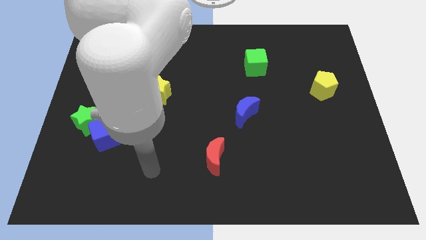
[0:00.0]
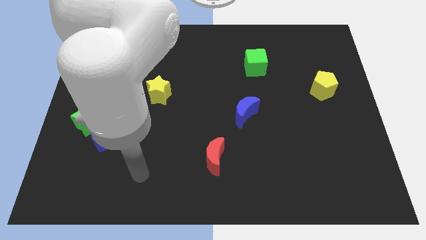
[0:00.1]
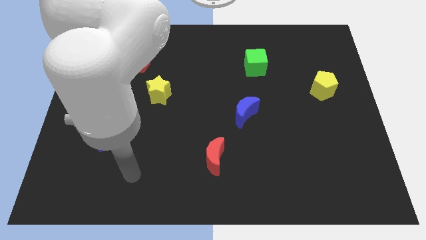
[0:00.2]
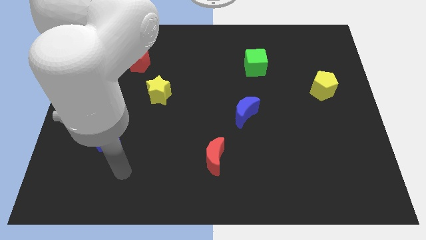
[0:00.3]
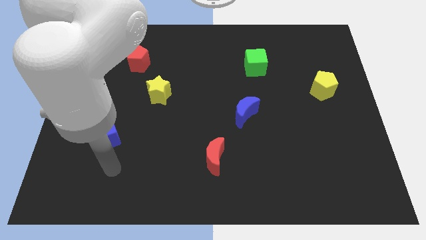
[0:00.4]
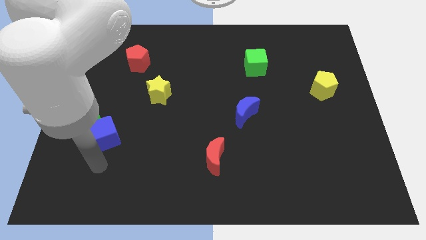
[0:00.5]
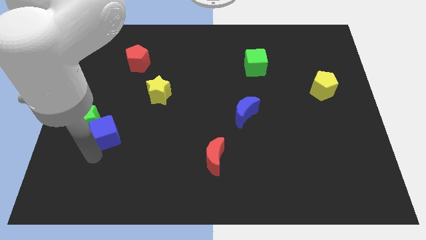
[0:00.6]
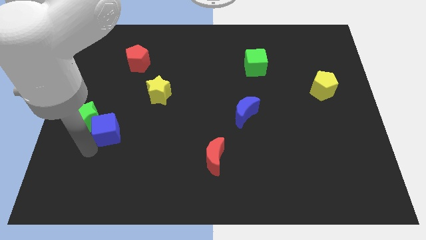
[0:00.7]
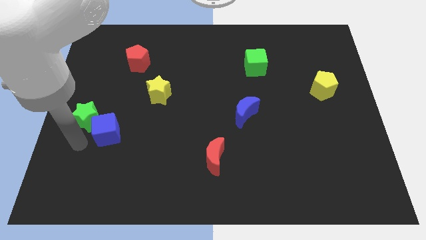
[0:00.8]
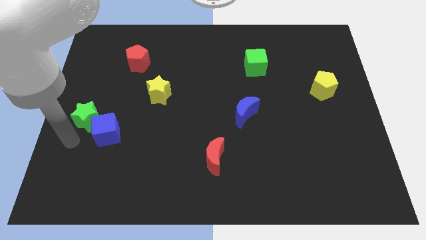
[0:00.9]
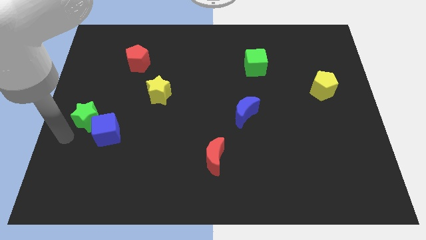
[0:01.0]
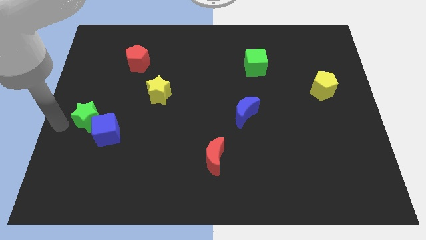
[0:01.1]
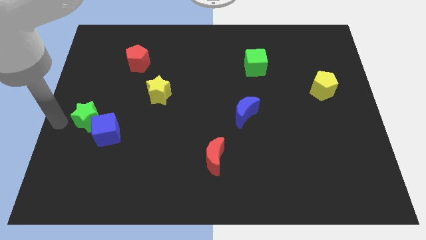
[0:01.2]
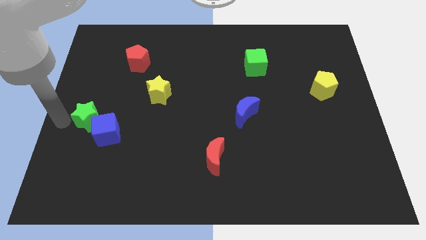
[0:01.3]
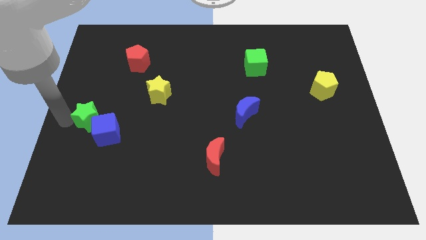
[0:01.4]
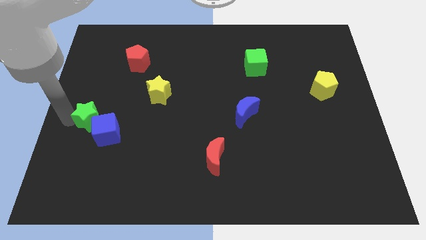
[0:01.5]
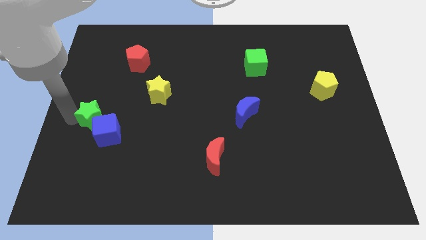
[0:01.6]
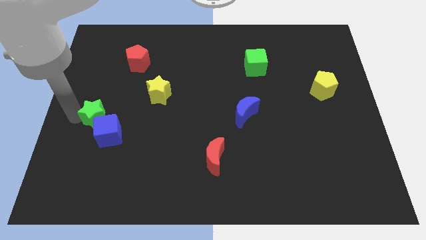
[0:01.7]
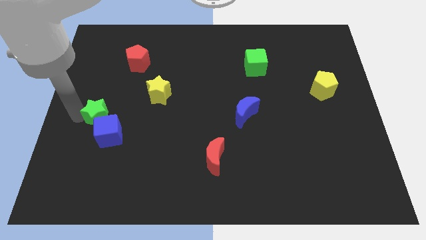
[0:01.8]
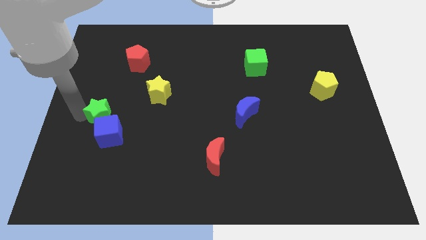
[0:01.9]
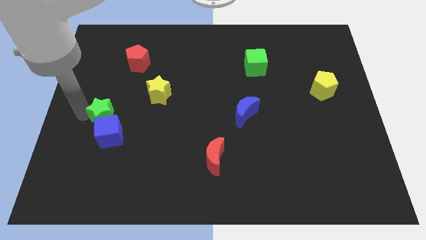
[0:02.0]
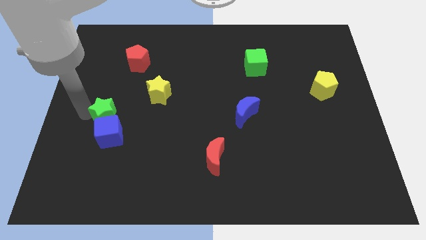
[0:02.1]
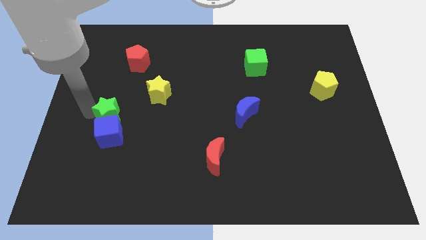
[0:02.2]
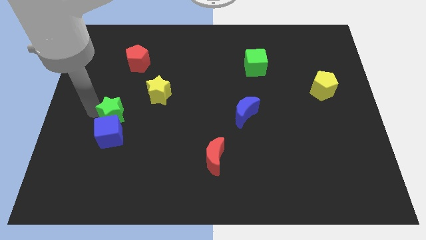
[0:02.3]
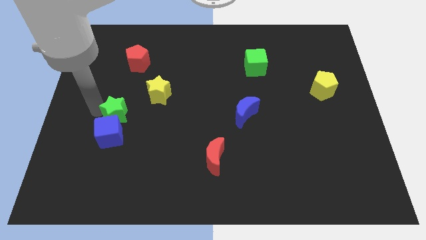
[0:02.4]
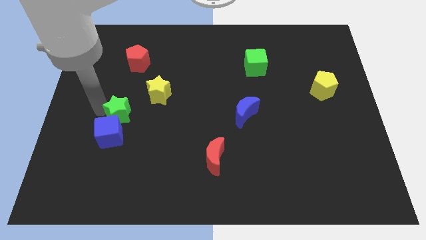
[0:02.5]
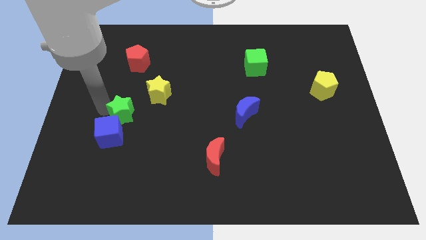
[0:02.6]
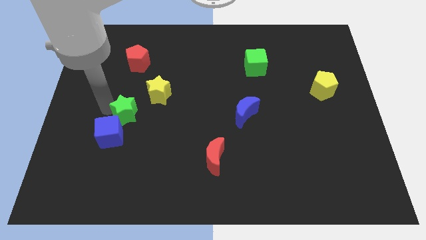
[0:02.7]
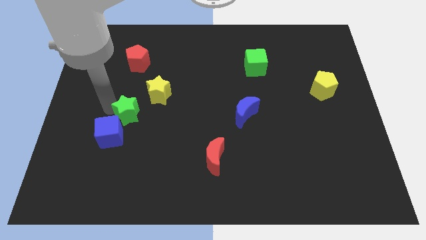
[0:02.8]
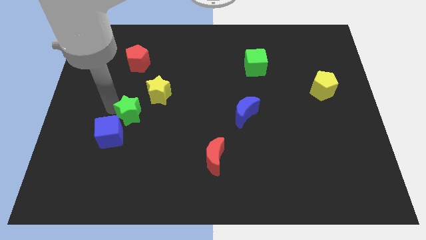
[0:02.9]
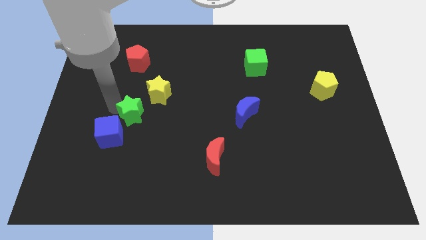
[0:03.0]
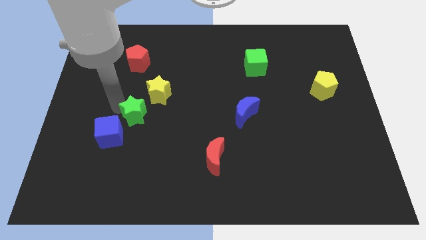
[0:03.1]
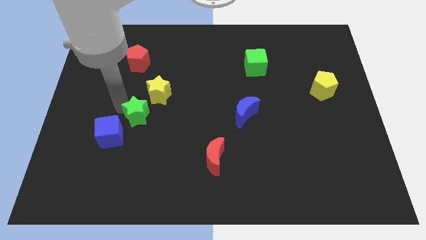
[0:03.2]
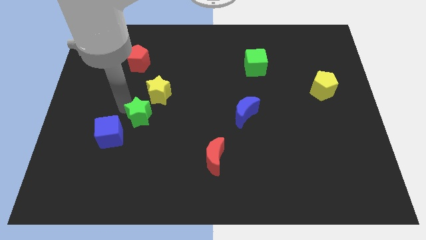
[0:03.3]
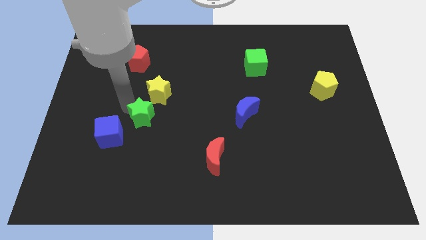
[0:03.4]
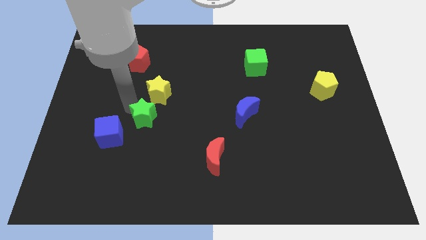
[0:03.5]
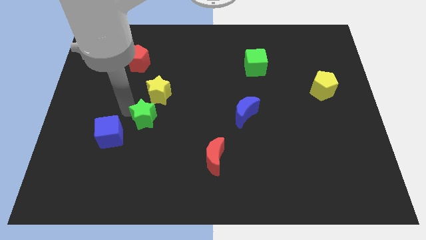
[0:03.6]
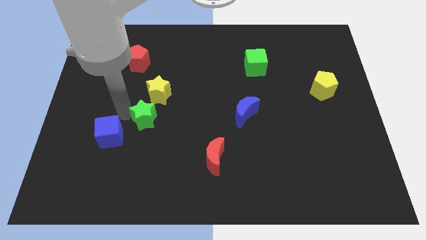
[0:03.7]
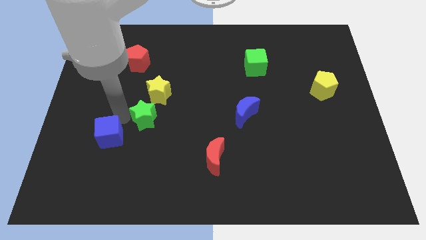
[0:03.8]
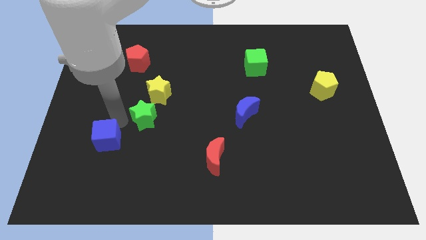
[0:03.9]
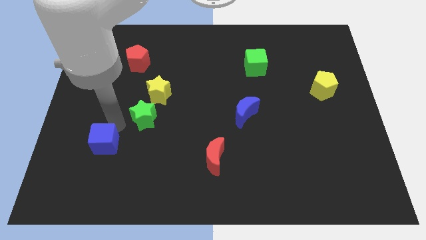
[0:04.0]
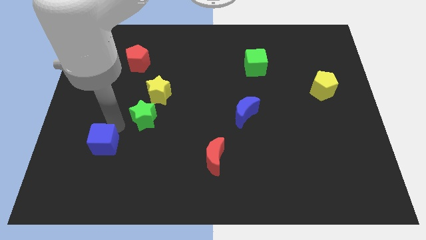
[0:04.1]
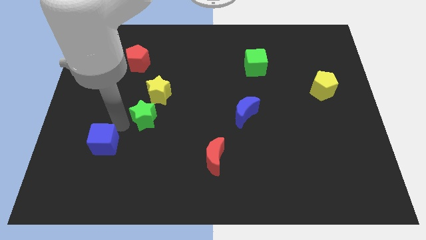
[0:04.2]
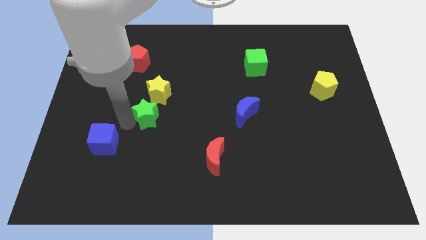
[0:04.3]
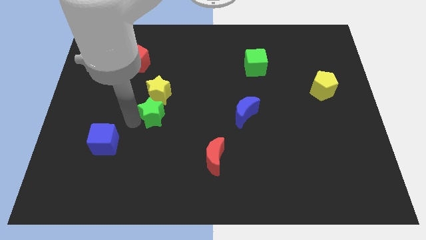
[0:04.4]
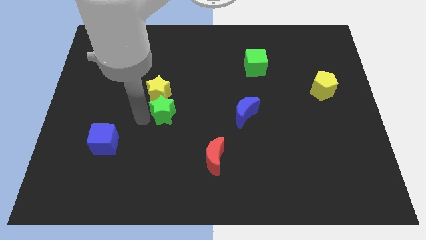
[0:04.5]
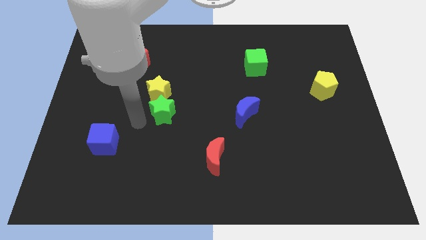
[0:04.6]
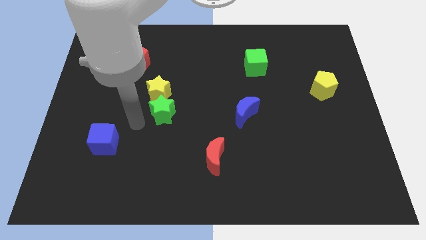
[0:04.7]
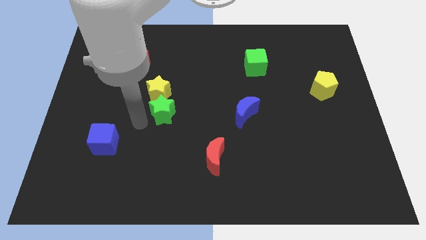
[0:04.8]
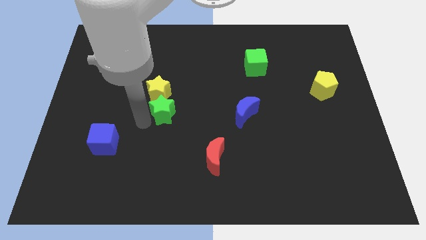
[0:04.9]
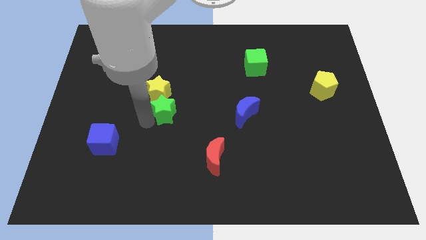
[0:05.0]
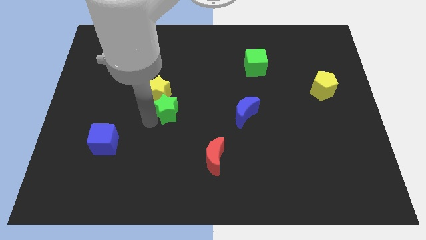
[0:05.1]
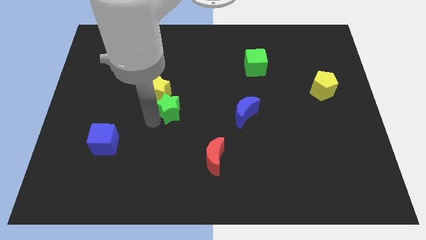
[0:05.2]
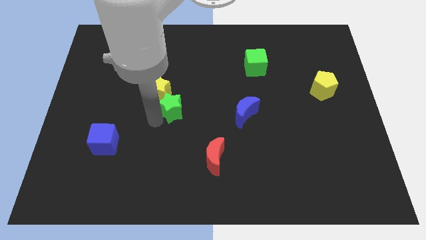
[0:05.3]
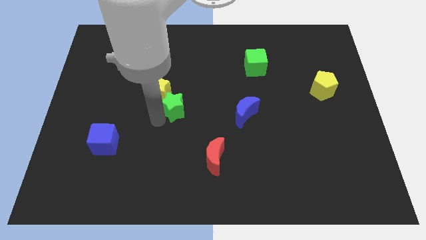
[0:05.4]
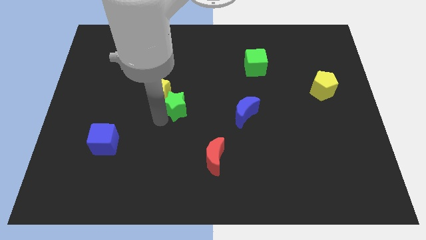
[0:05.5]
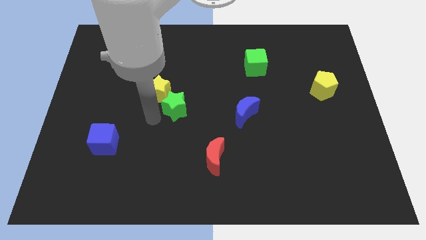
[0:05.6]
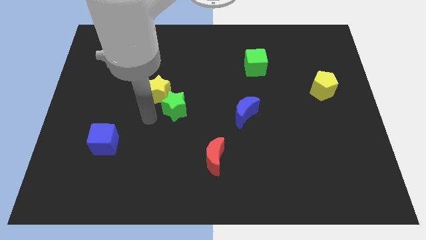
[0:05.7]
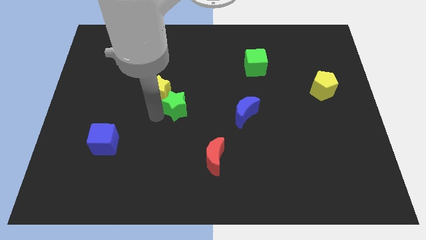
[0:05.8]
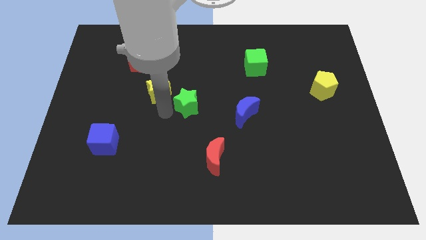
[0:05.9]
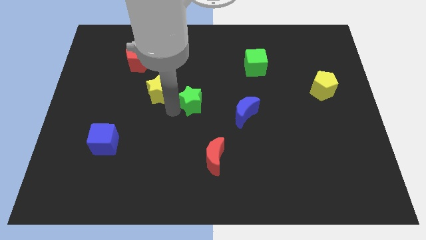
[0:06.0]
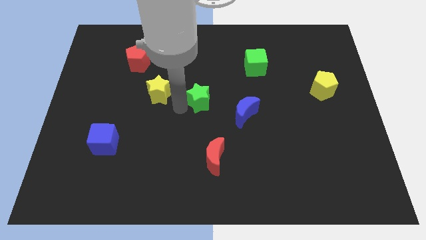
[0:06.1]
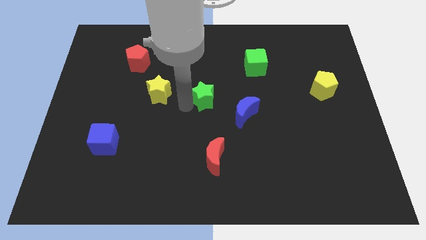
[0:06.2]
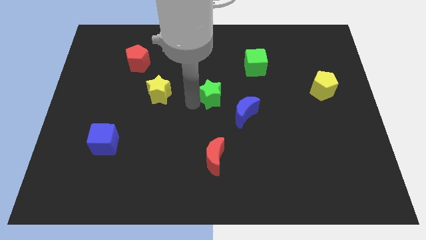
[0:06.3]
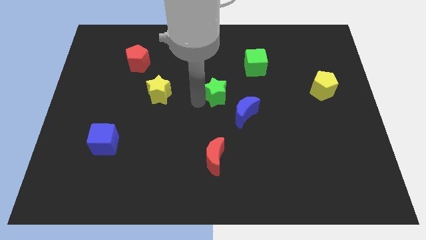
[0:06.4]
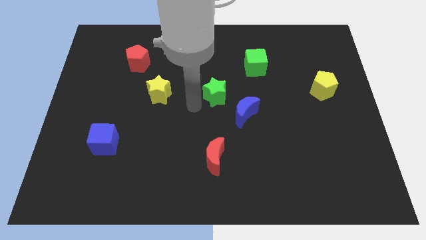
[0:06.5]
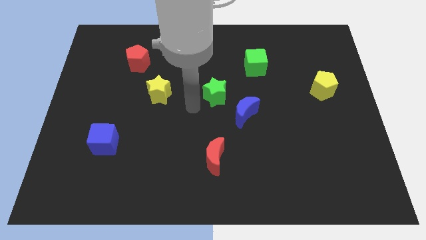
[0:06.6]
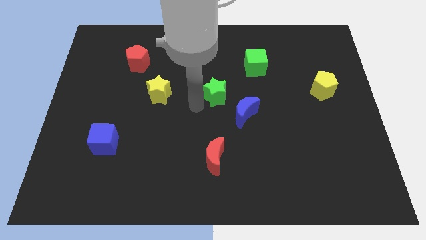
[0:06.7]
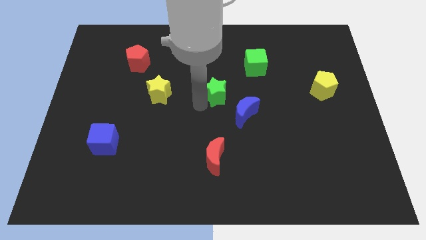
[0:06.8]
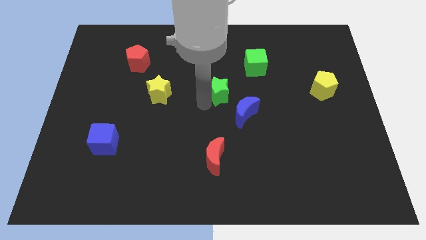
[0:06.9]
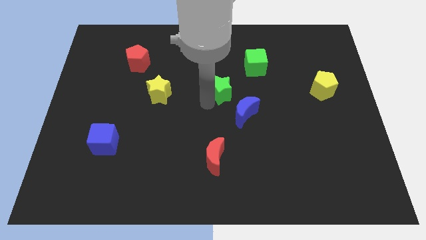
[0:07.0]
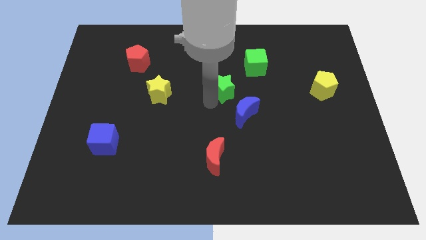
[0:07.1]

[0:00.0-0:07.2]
put the green star above the blue moon
